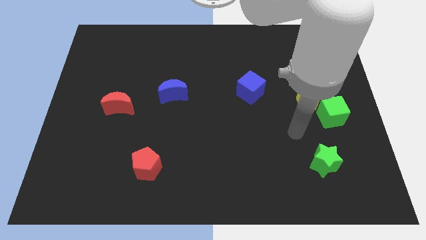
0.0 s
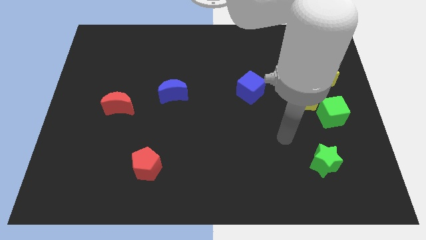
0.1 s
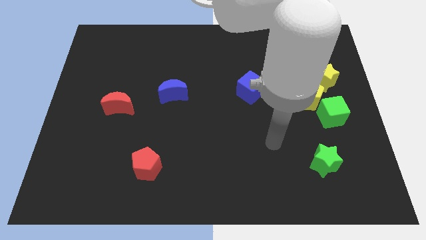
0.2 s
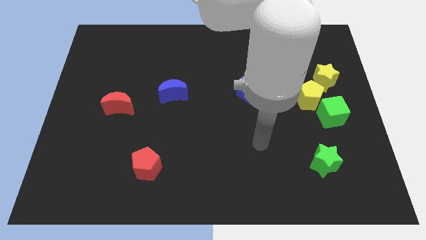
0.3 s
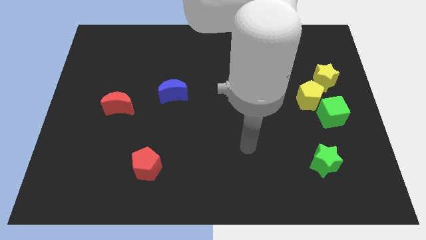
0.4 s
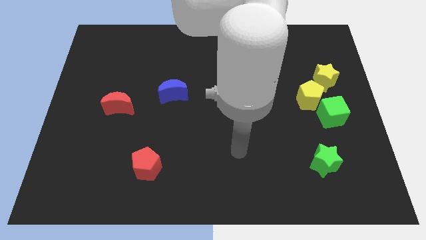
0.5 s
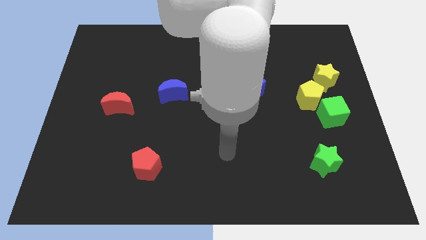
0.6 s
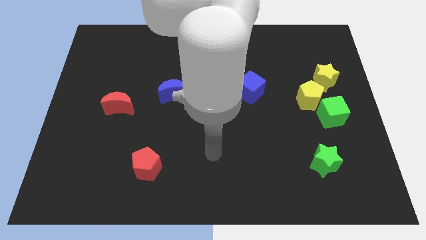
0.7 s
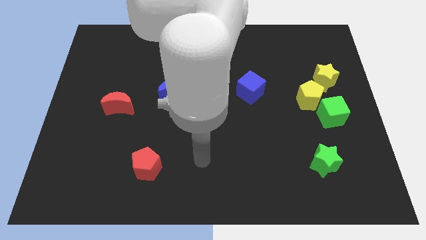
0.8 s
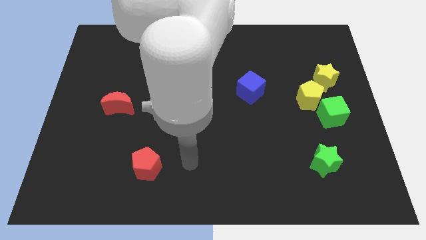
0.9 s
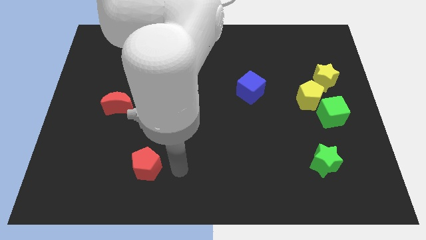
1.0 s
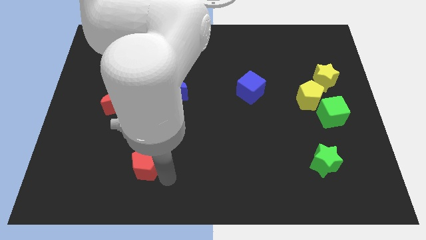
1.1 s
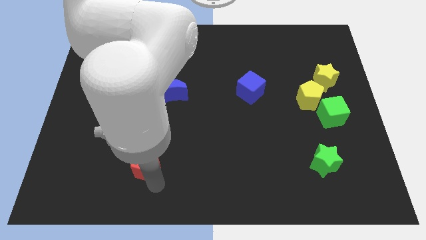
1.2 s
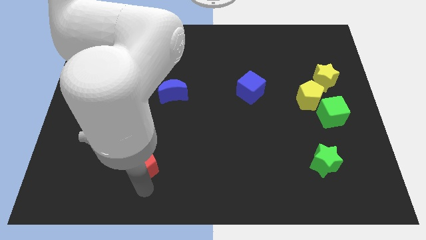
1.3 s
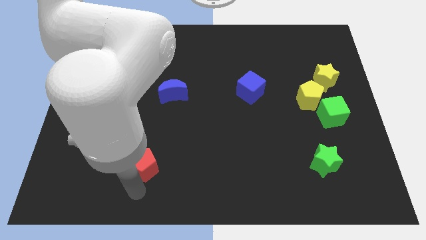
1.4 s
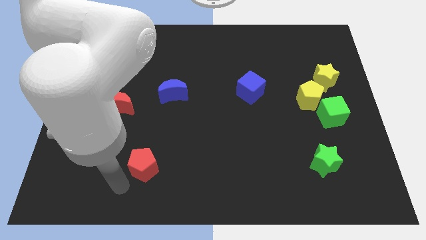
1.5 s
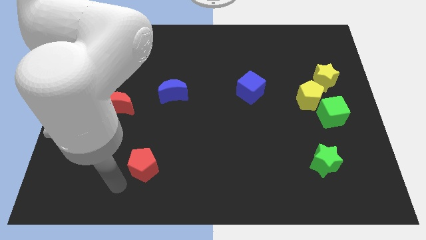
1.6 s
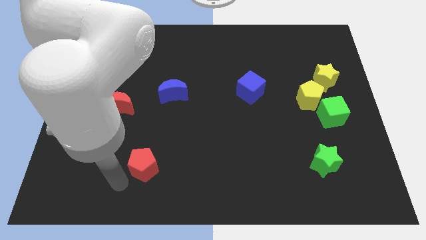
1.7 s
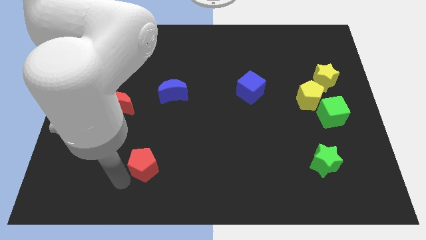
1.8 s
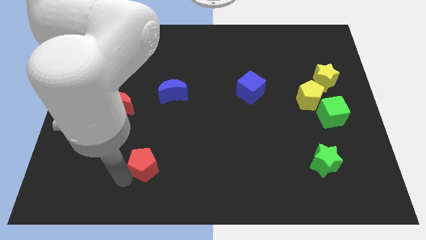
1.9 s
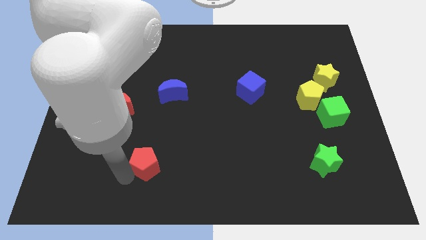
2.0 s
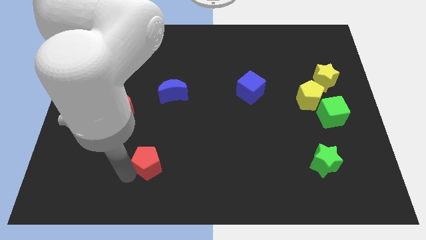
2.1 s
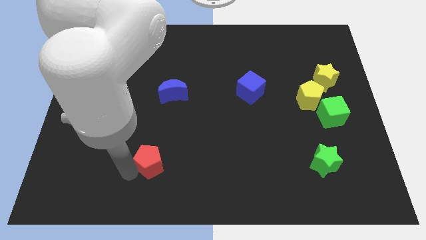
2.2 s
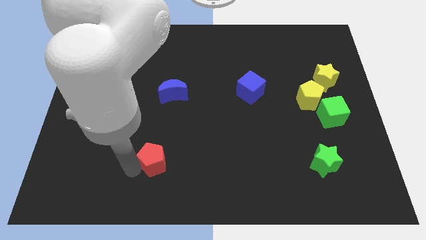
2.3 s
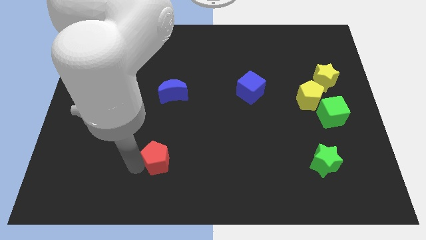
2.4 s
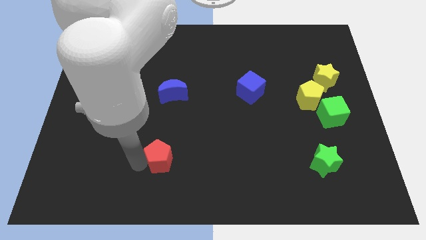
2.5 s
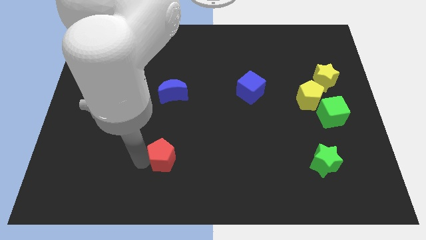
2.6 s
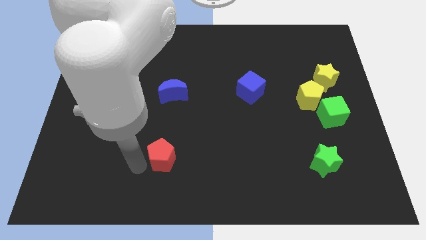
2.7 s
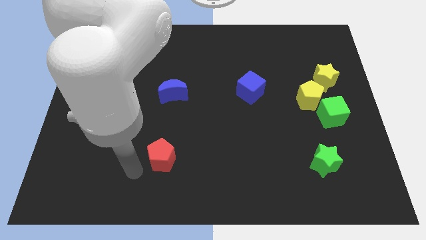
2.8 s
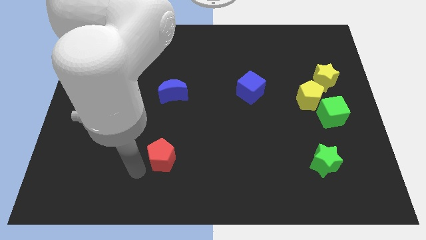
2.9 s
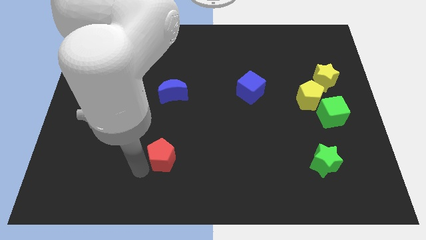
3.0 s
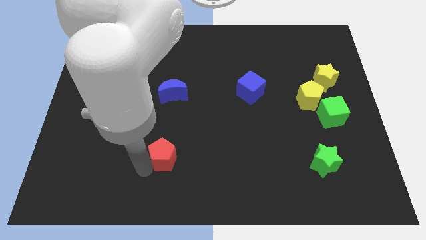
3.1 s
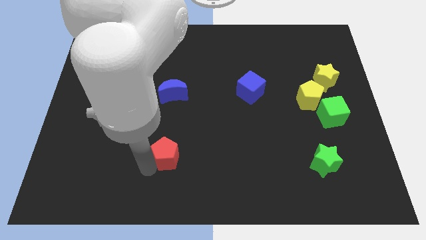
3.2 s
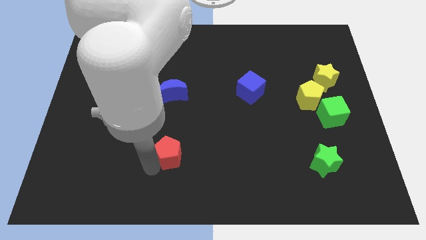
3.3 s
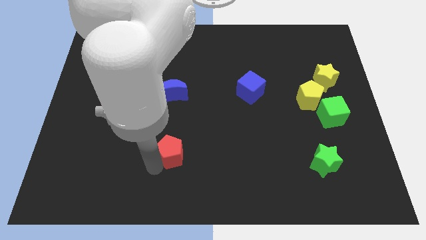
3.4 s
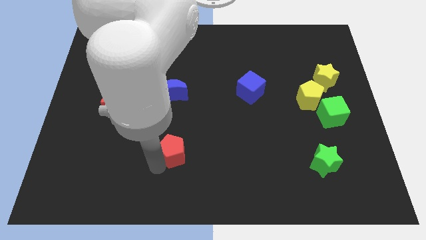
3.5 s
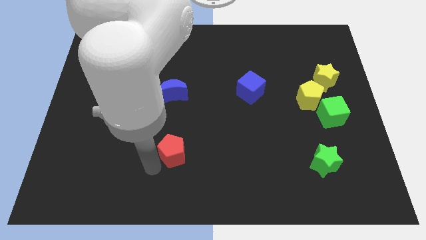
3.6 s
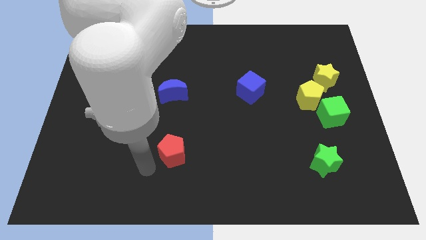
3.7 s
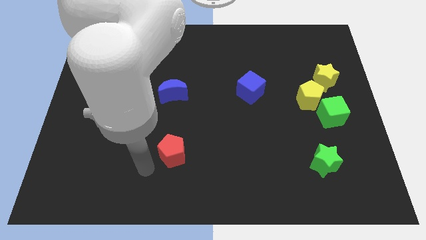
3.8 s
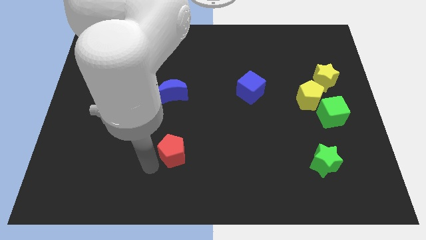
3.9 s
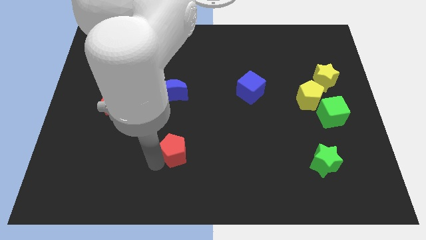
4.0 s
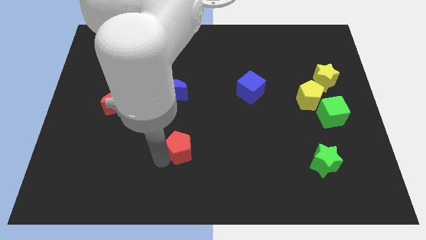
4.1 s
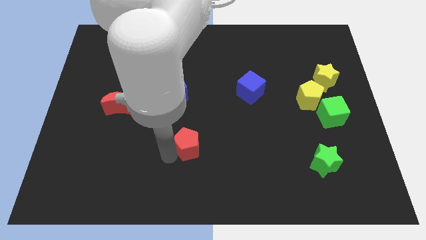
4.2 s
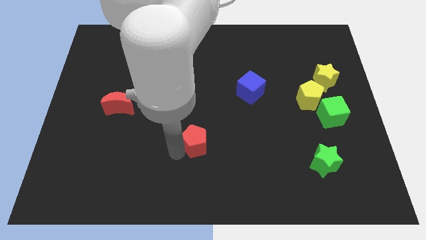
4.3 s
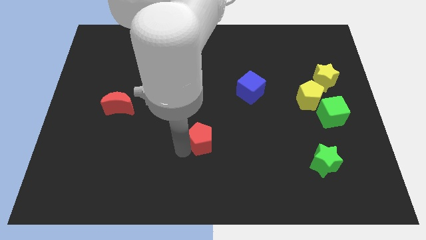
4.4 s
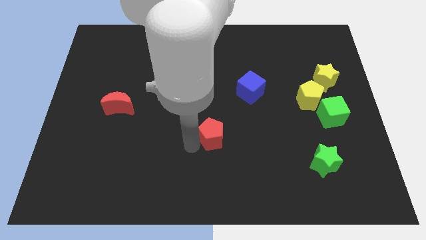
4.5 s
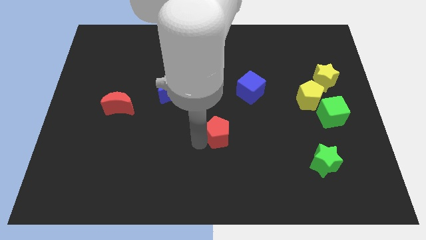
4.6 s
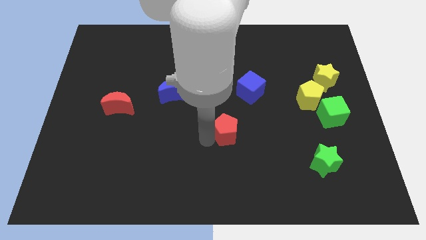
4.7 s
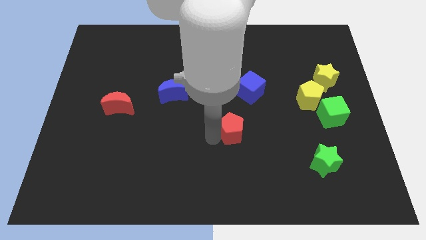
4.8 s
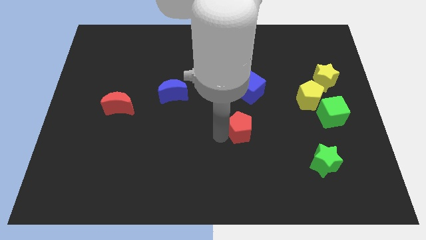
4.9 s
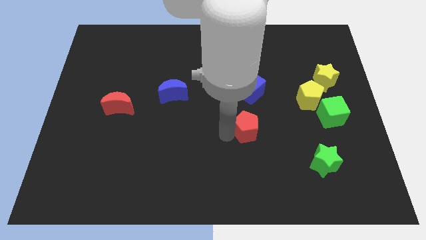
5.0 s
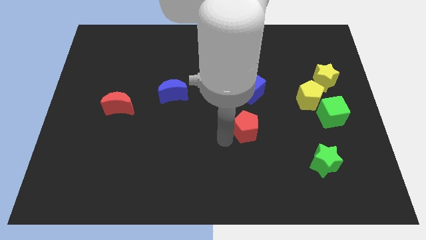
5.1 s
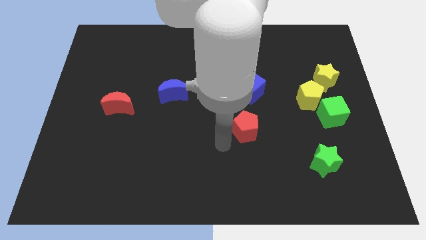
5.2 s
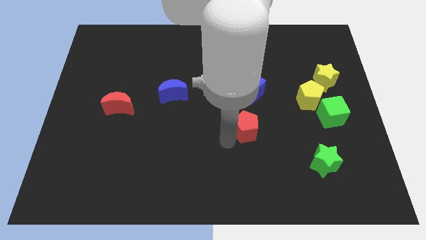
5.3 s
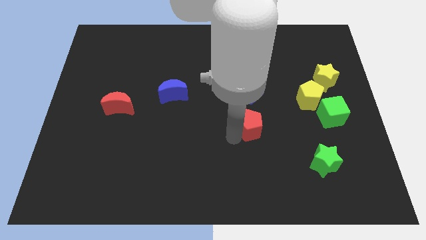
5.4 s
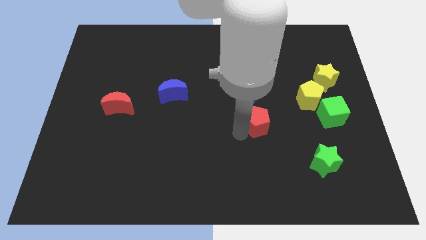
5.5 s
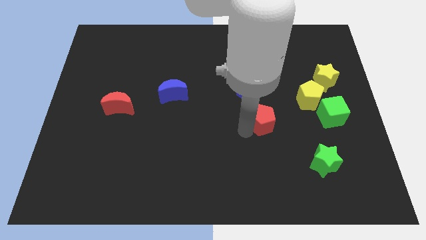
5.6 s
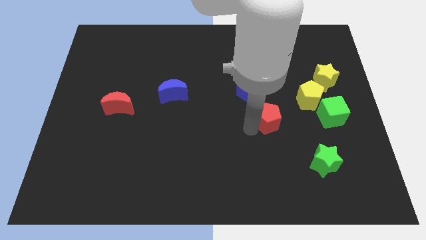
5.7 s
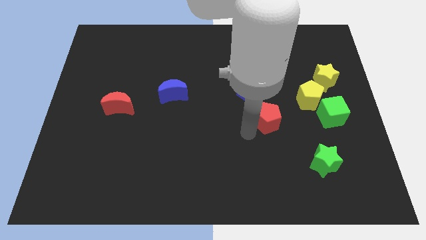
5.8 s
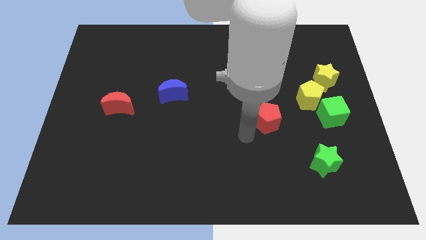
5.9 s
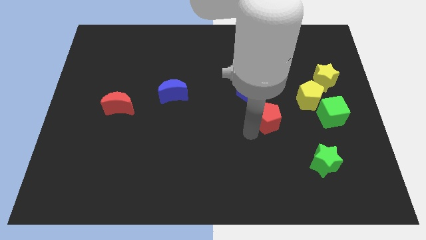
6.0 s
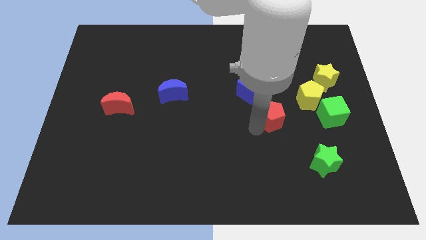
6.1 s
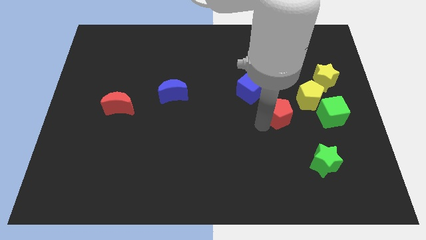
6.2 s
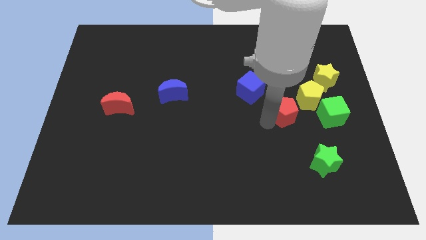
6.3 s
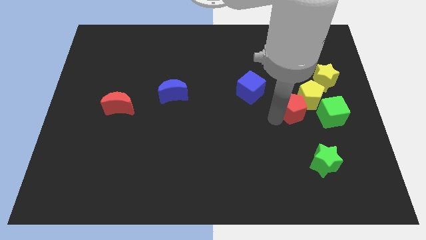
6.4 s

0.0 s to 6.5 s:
move the red pentagon next to the yellow pentagon
